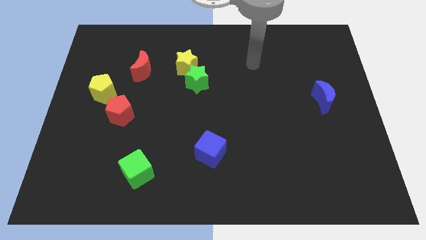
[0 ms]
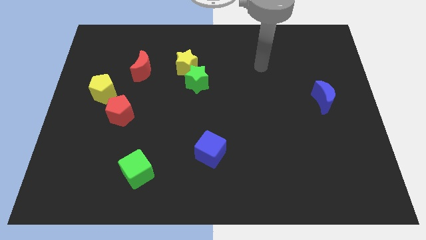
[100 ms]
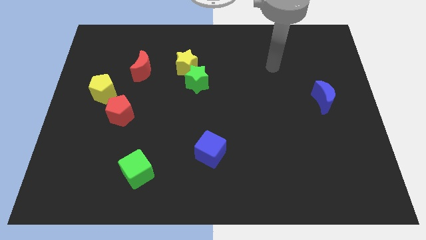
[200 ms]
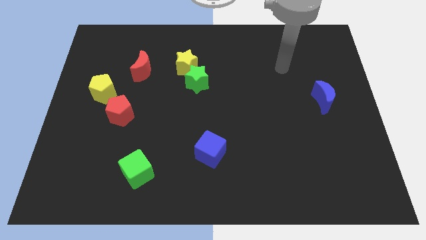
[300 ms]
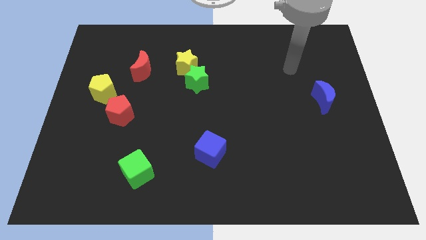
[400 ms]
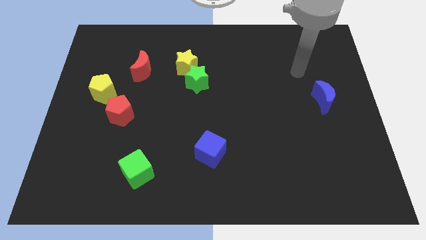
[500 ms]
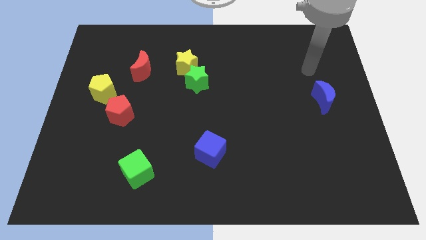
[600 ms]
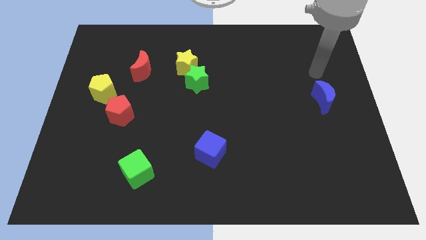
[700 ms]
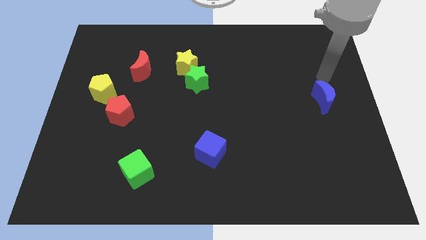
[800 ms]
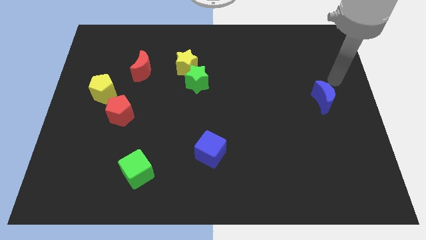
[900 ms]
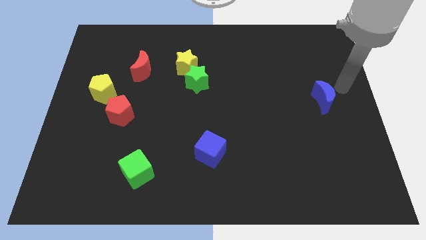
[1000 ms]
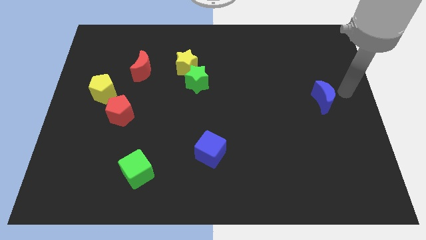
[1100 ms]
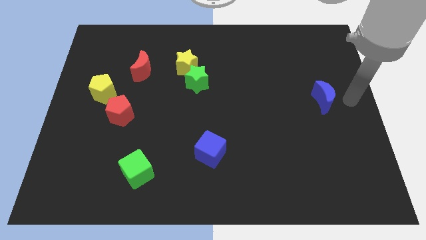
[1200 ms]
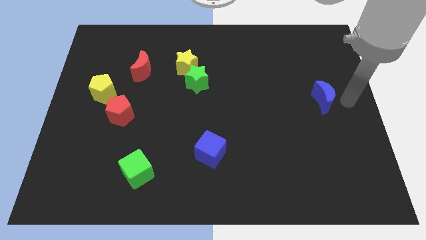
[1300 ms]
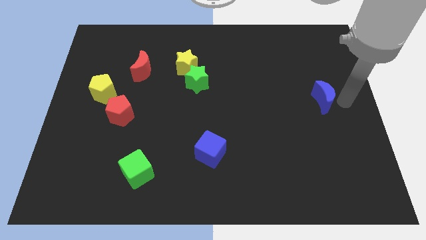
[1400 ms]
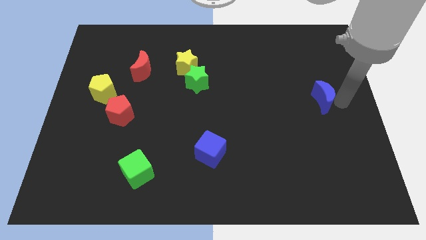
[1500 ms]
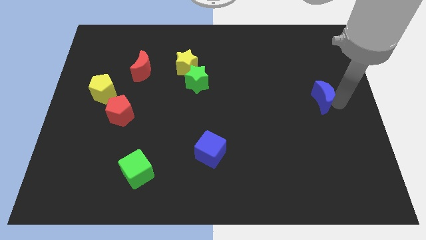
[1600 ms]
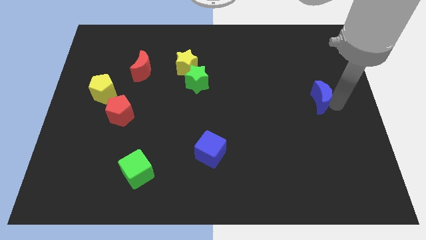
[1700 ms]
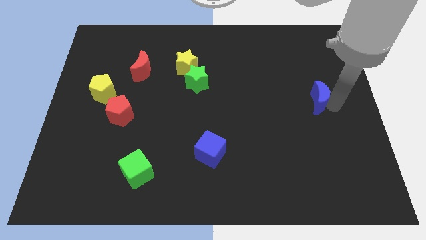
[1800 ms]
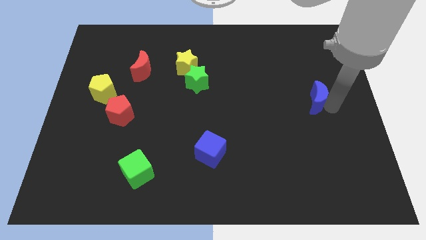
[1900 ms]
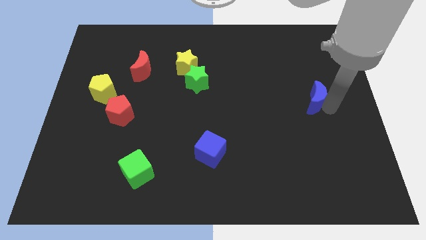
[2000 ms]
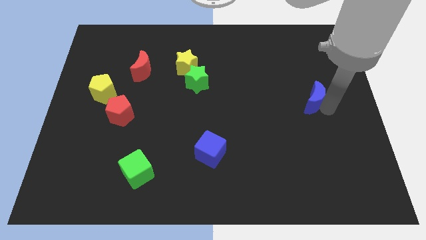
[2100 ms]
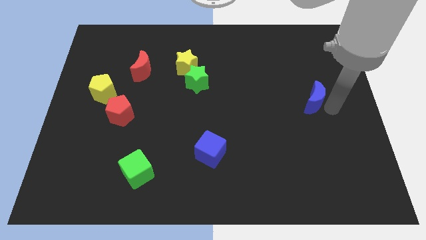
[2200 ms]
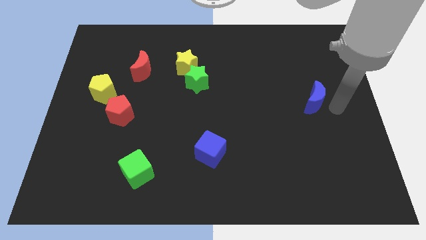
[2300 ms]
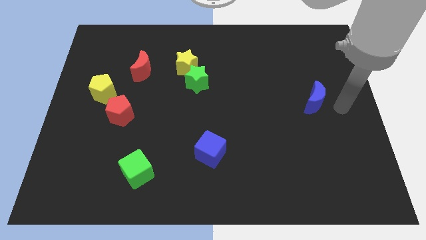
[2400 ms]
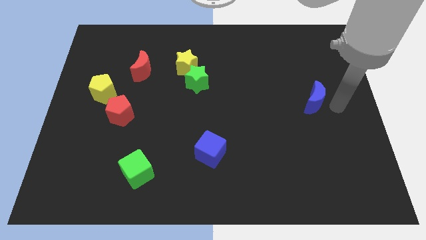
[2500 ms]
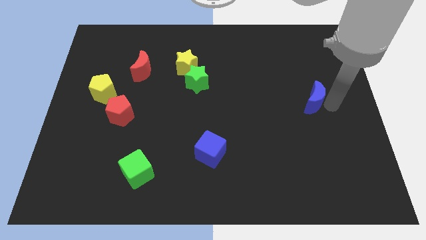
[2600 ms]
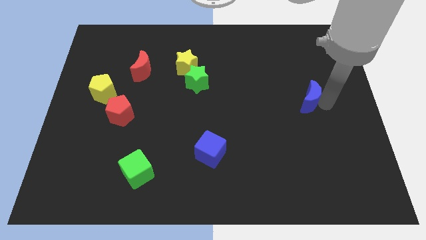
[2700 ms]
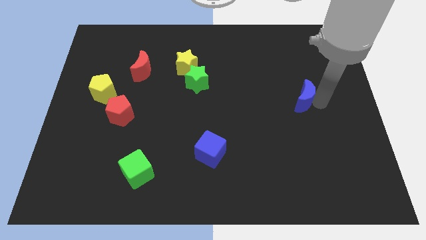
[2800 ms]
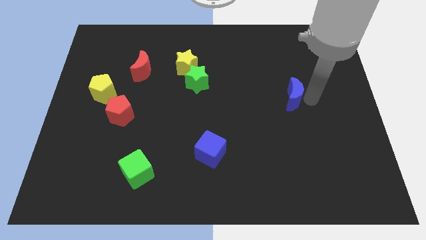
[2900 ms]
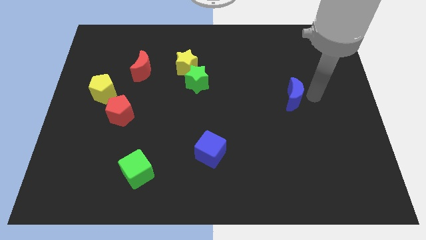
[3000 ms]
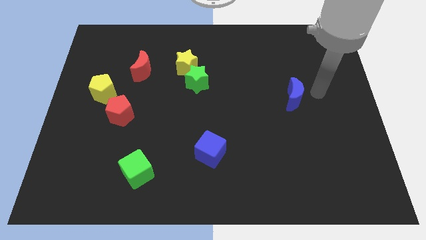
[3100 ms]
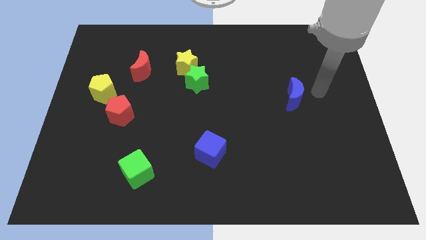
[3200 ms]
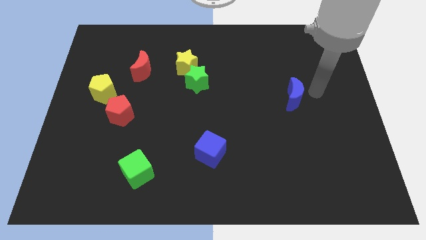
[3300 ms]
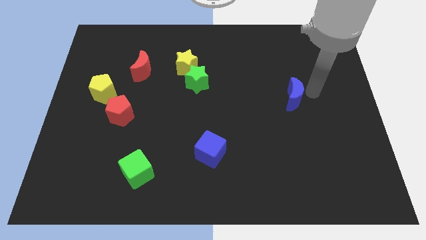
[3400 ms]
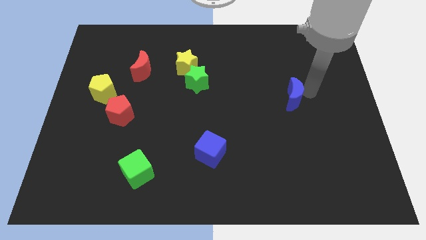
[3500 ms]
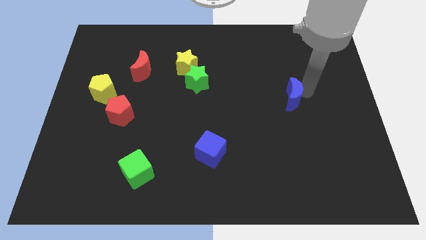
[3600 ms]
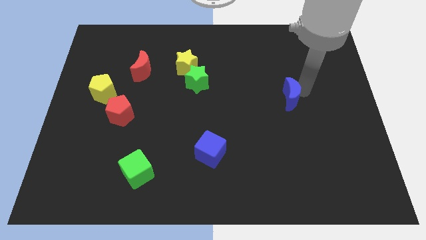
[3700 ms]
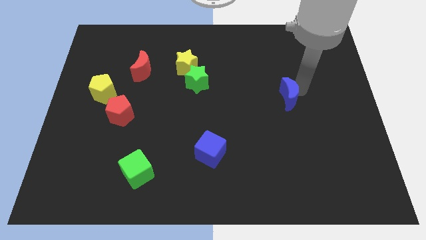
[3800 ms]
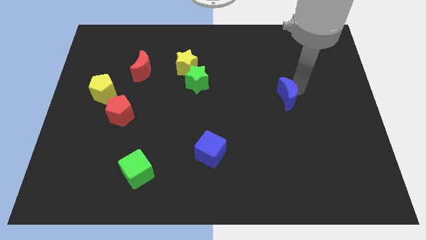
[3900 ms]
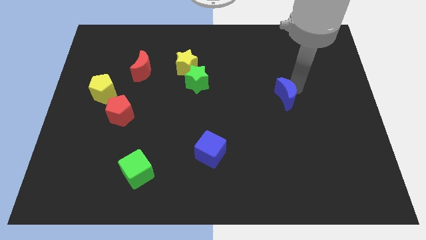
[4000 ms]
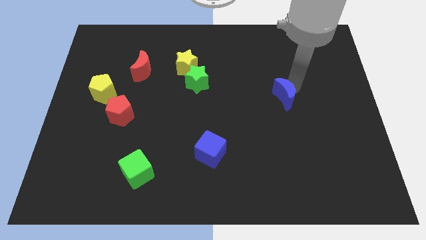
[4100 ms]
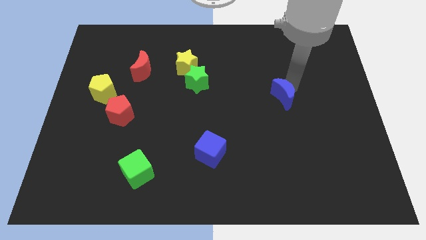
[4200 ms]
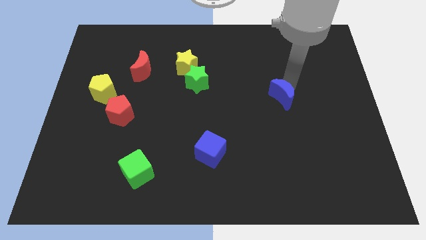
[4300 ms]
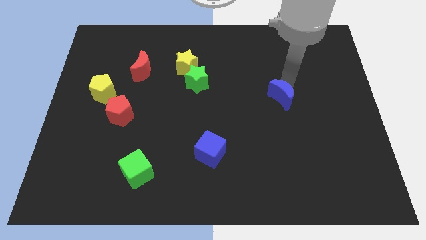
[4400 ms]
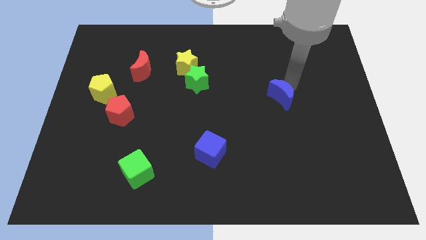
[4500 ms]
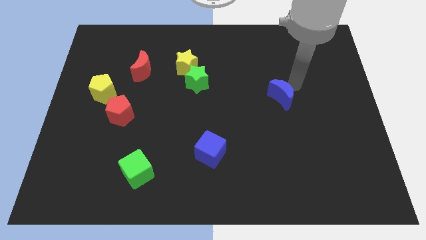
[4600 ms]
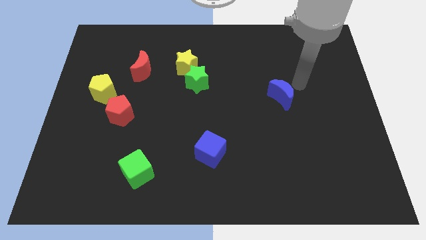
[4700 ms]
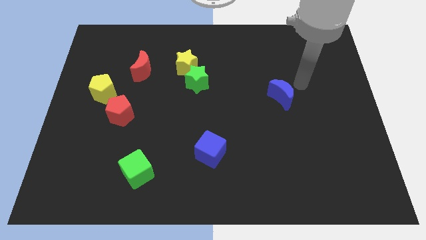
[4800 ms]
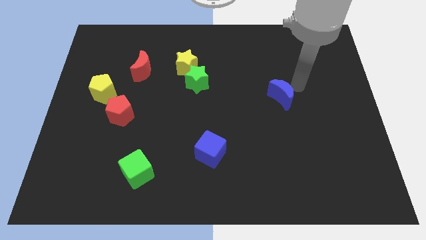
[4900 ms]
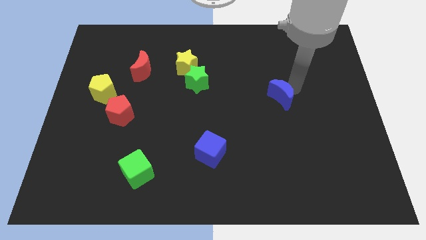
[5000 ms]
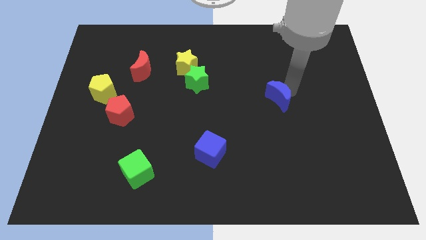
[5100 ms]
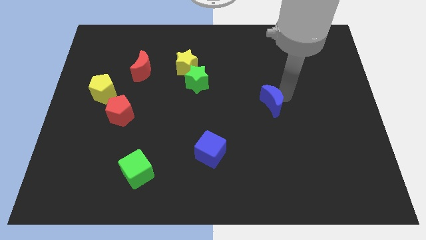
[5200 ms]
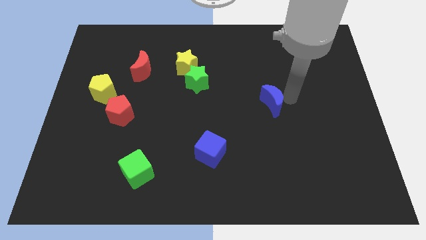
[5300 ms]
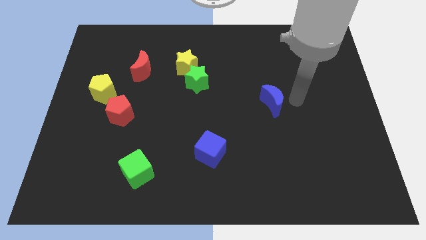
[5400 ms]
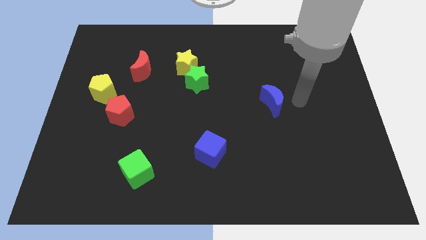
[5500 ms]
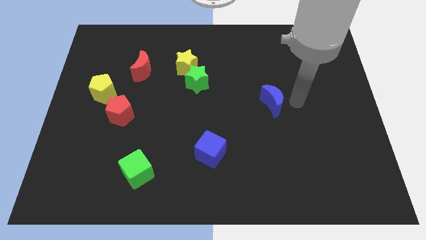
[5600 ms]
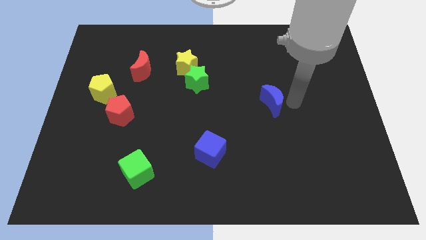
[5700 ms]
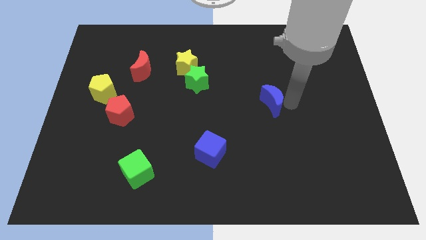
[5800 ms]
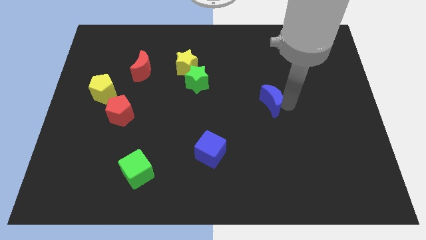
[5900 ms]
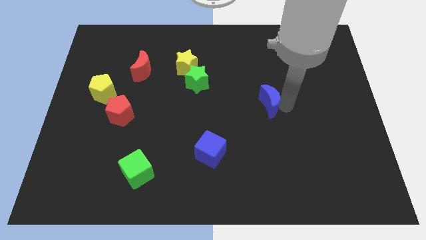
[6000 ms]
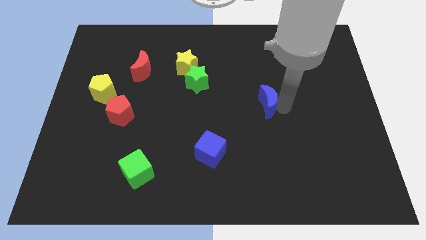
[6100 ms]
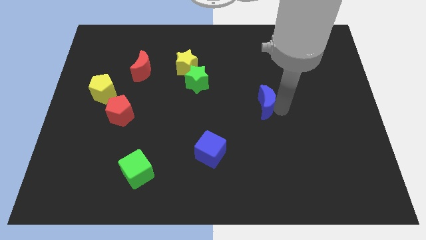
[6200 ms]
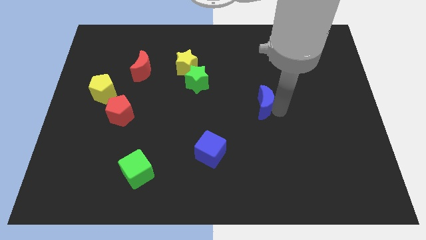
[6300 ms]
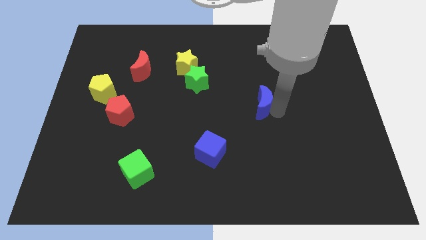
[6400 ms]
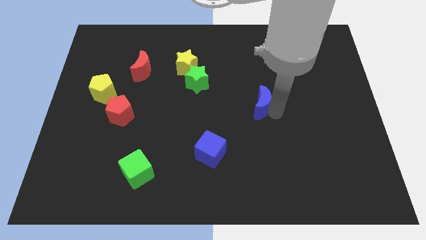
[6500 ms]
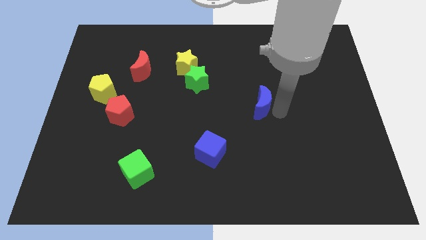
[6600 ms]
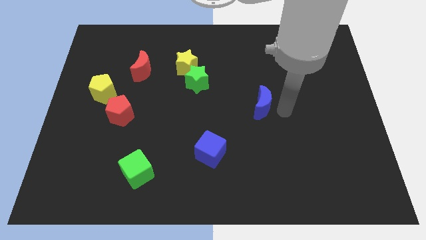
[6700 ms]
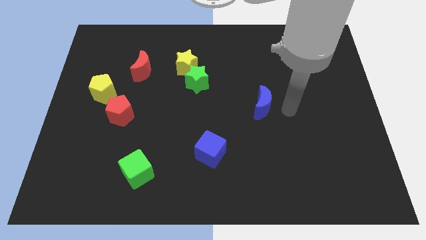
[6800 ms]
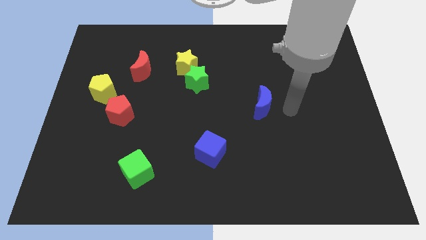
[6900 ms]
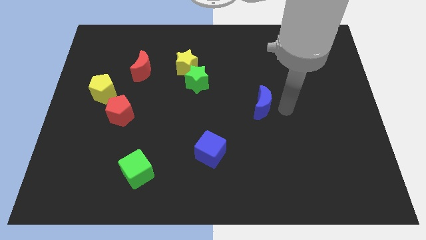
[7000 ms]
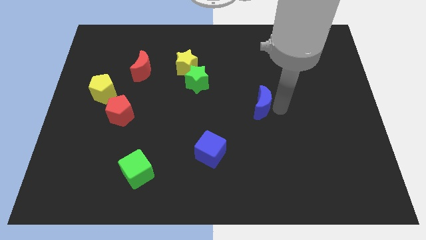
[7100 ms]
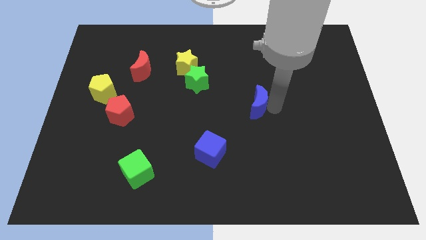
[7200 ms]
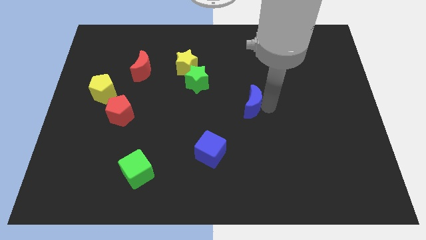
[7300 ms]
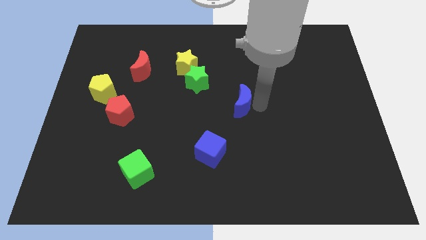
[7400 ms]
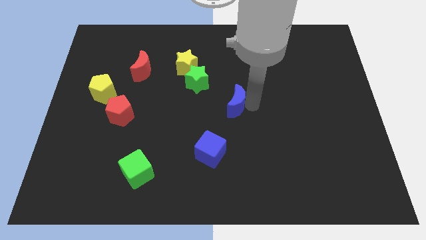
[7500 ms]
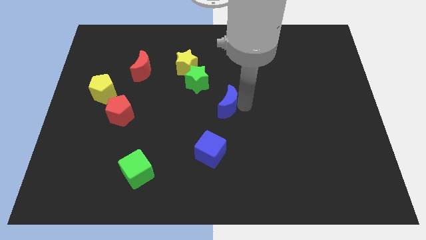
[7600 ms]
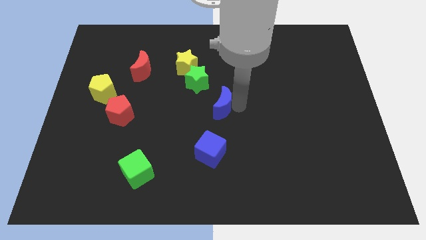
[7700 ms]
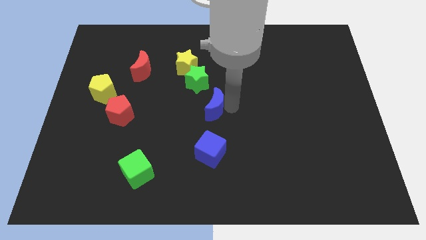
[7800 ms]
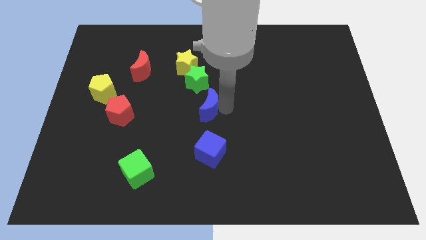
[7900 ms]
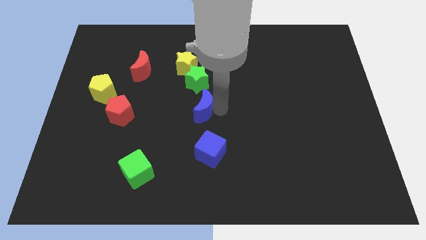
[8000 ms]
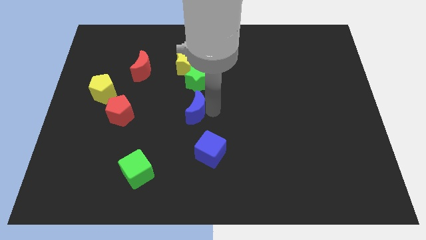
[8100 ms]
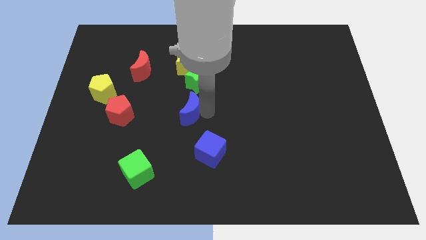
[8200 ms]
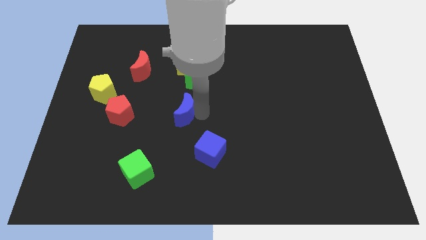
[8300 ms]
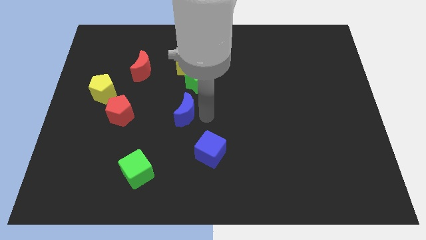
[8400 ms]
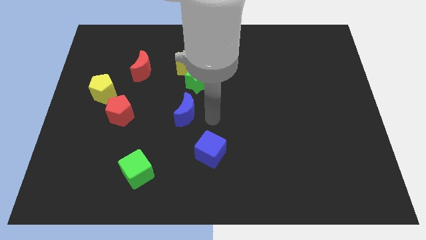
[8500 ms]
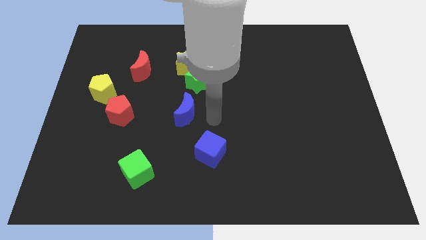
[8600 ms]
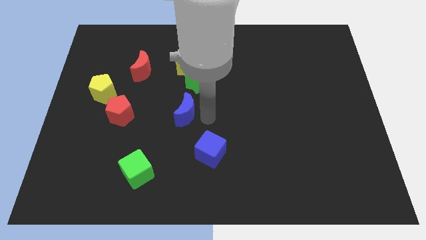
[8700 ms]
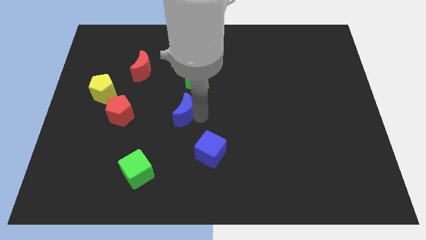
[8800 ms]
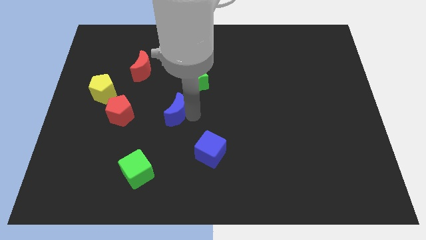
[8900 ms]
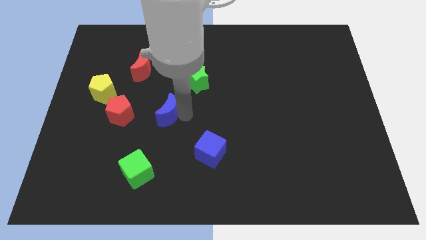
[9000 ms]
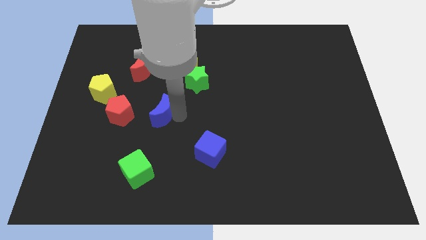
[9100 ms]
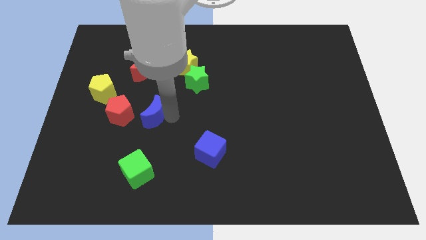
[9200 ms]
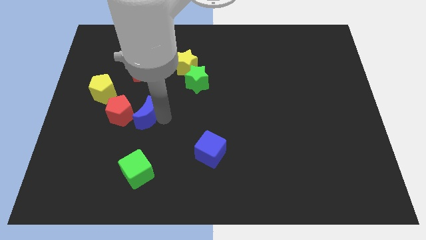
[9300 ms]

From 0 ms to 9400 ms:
put the blue moon to the bottom side of the red moon
